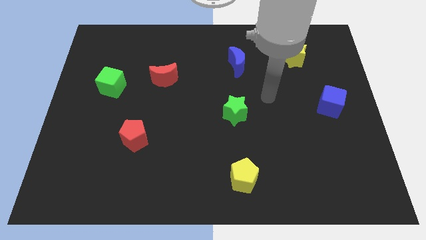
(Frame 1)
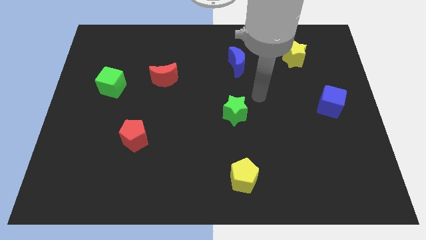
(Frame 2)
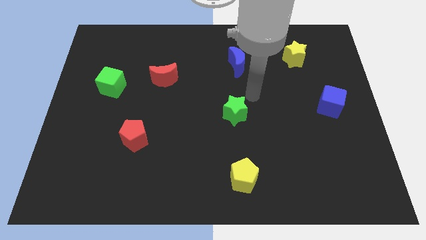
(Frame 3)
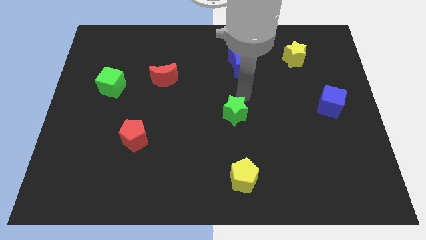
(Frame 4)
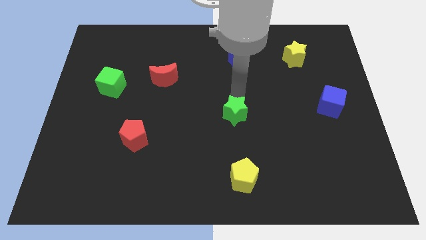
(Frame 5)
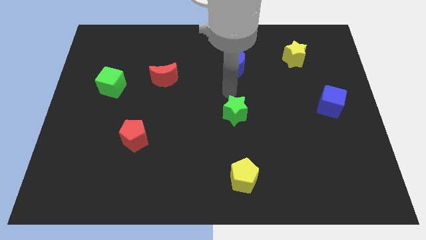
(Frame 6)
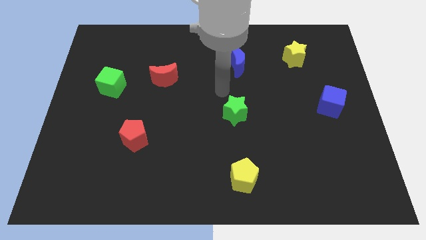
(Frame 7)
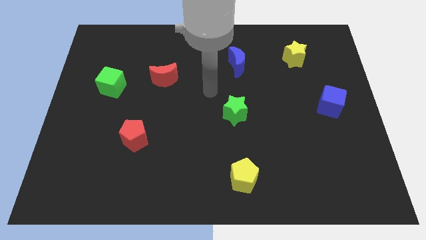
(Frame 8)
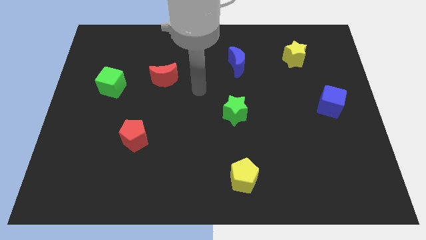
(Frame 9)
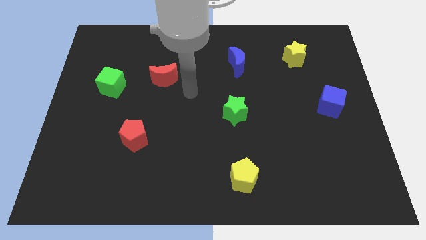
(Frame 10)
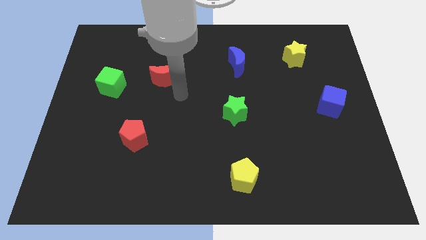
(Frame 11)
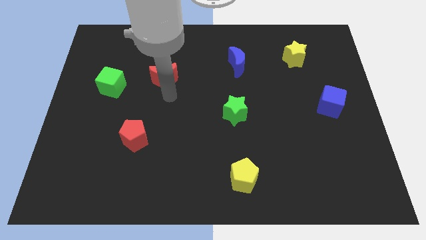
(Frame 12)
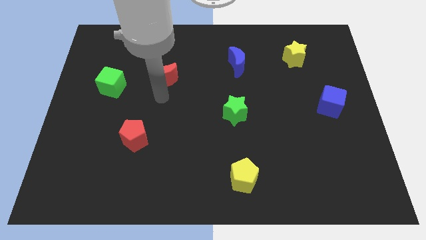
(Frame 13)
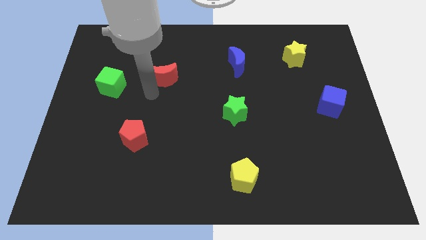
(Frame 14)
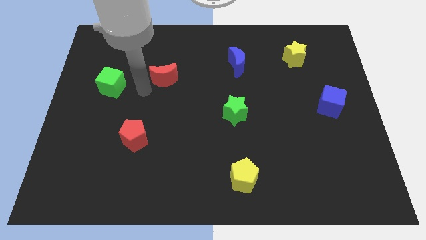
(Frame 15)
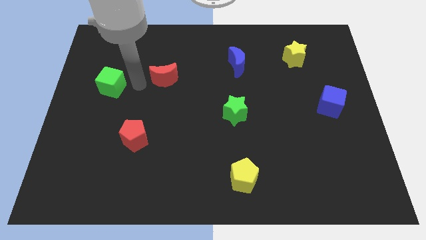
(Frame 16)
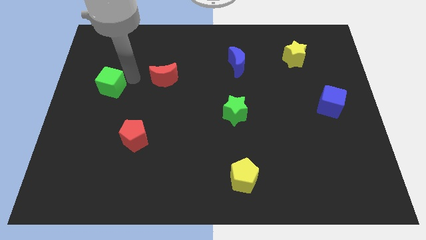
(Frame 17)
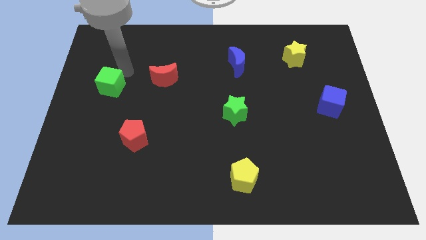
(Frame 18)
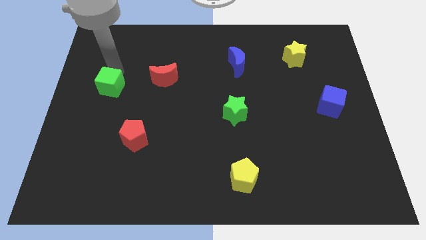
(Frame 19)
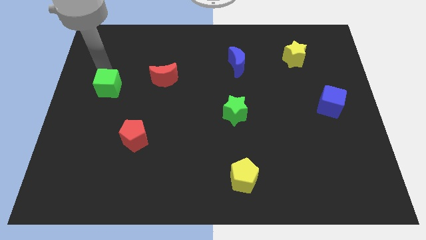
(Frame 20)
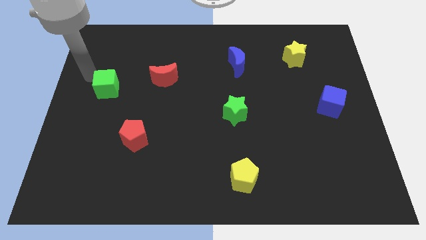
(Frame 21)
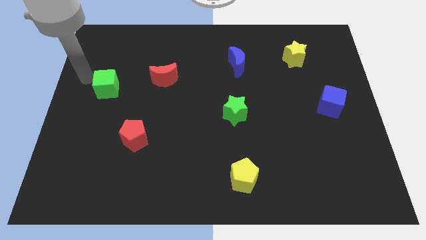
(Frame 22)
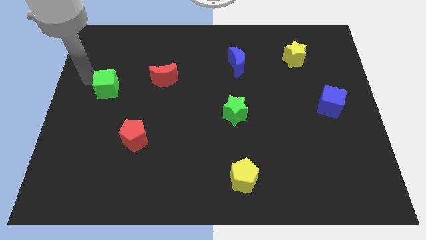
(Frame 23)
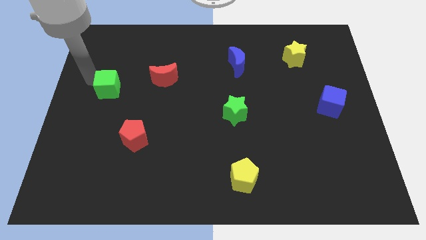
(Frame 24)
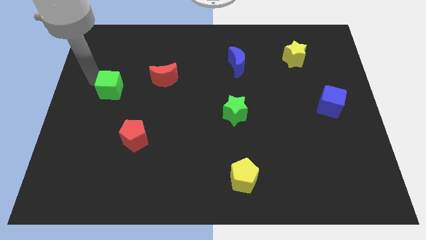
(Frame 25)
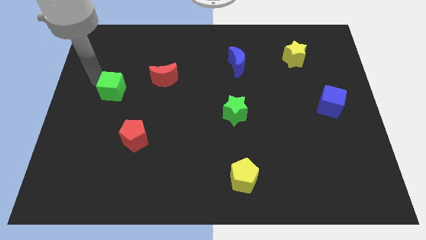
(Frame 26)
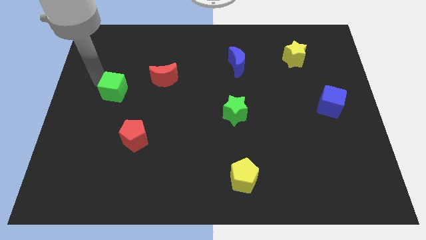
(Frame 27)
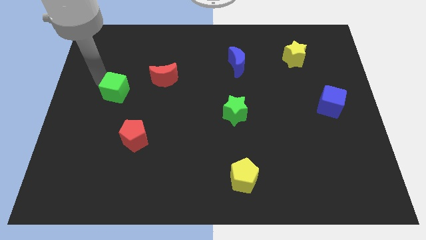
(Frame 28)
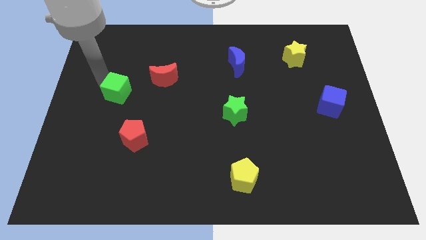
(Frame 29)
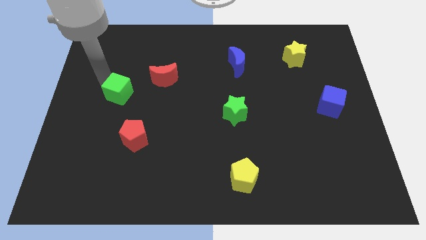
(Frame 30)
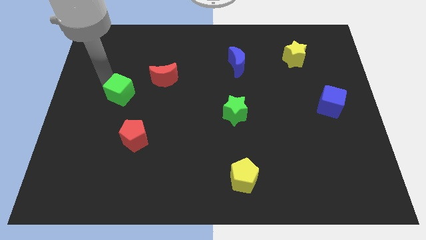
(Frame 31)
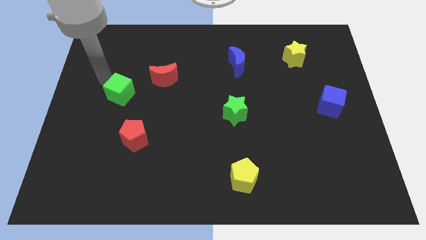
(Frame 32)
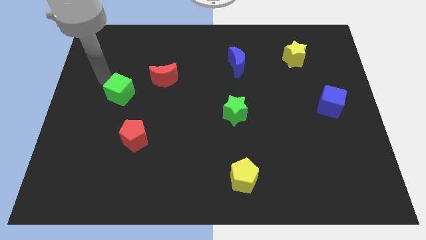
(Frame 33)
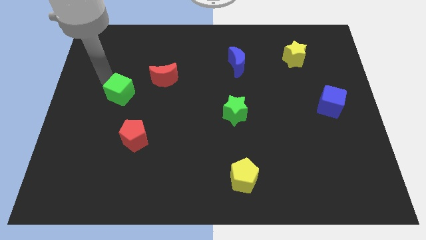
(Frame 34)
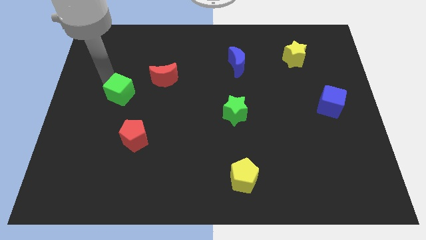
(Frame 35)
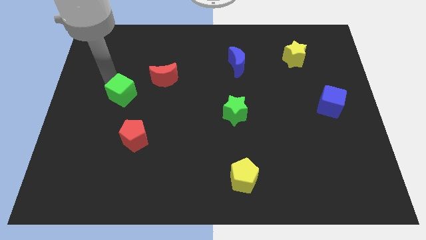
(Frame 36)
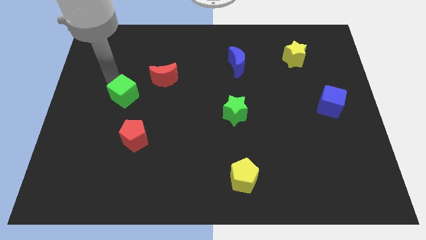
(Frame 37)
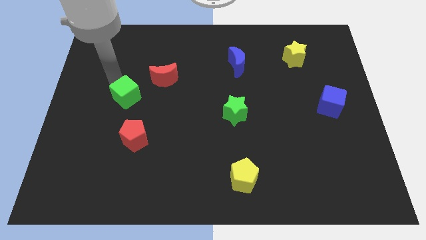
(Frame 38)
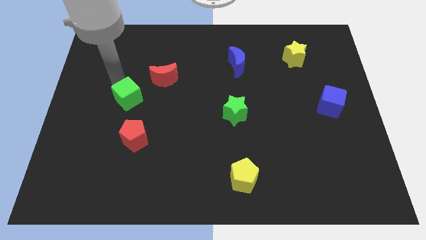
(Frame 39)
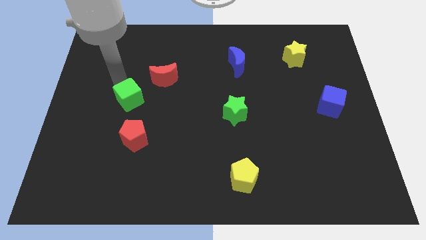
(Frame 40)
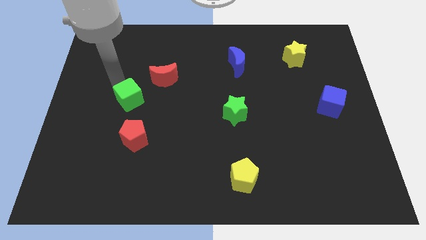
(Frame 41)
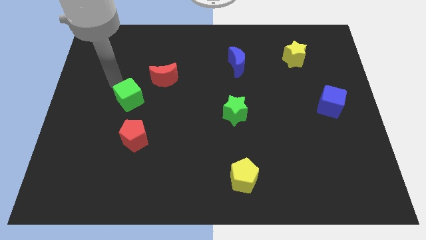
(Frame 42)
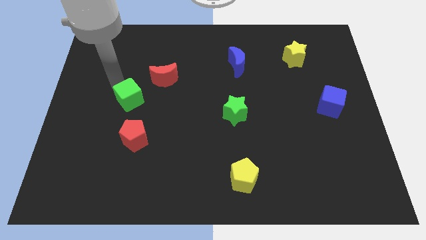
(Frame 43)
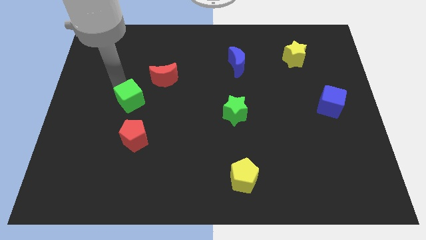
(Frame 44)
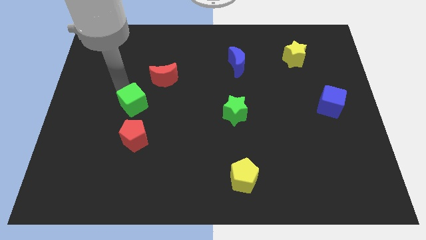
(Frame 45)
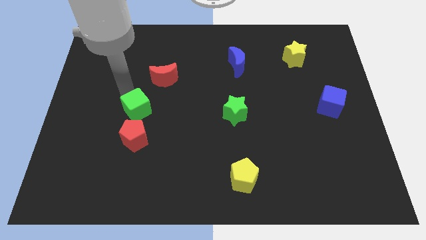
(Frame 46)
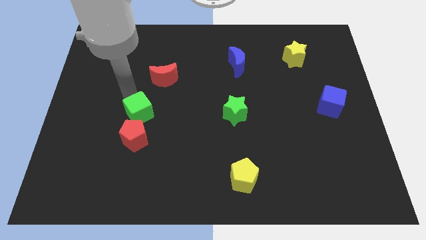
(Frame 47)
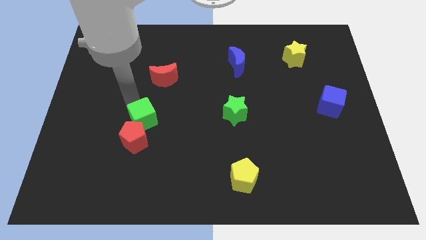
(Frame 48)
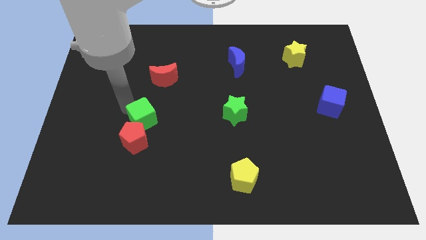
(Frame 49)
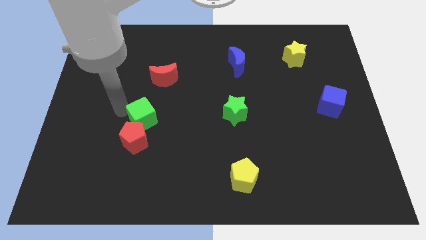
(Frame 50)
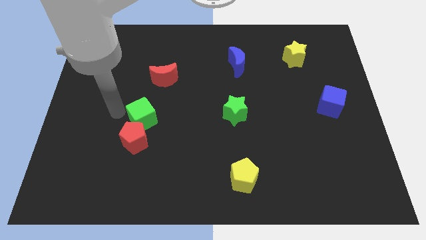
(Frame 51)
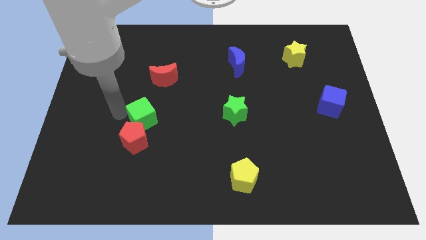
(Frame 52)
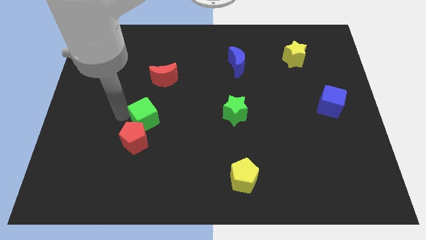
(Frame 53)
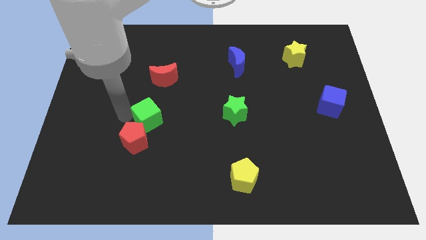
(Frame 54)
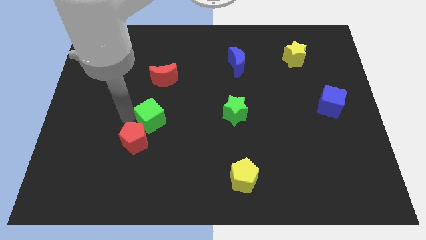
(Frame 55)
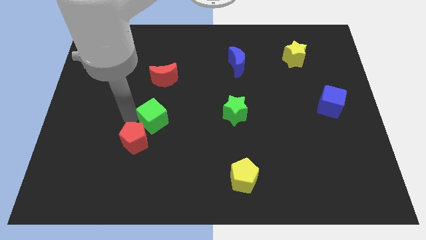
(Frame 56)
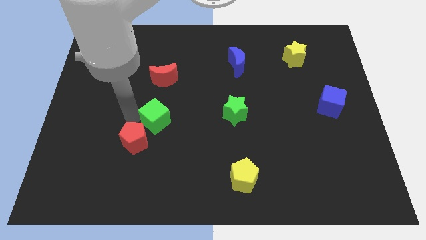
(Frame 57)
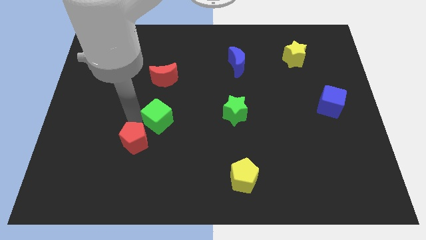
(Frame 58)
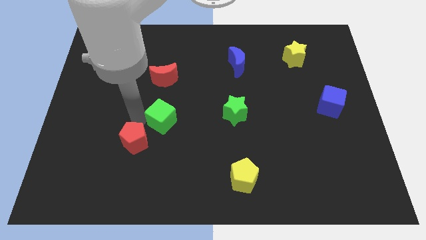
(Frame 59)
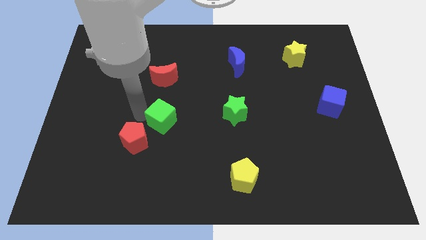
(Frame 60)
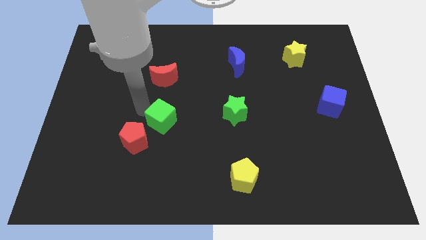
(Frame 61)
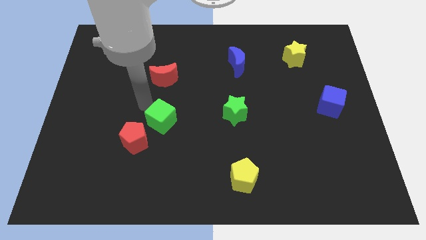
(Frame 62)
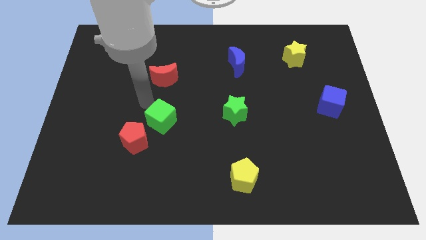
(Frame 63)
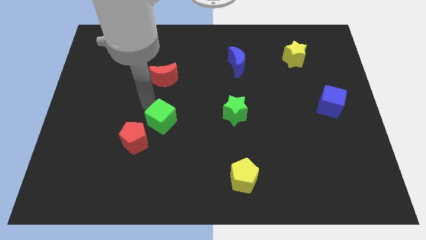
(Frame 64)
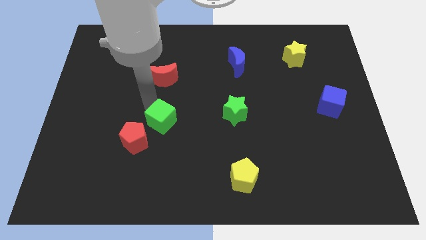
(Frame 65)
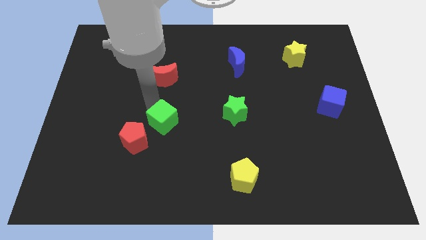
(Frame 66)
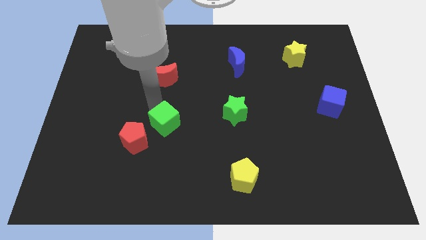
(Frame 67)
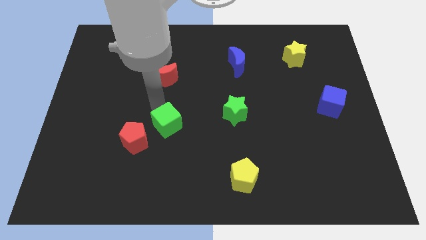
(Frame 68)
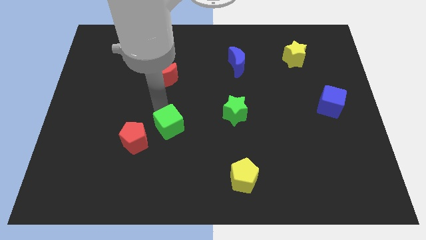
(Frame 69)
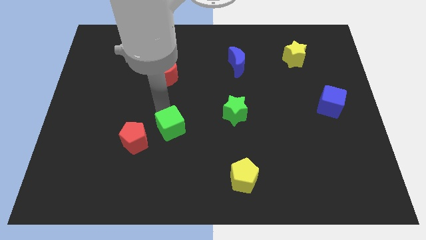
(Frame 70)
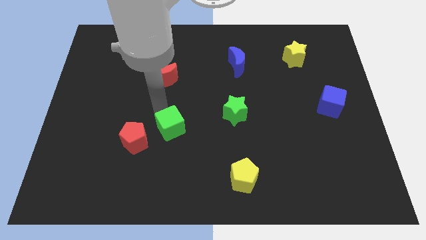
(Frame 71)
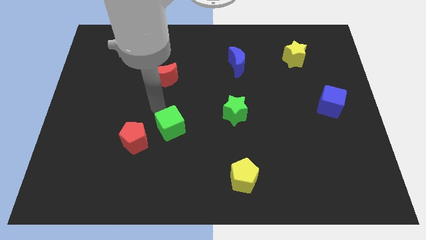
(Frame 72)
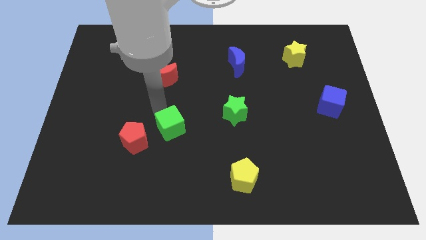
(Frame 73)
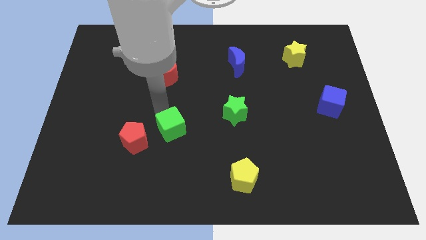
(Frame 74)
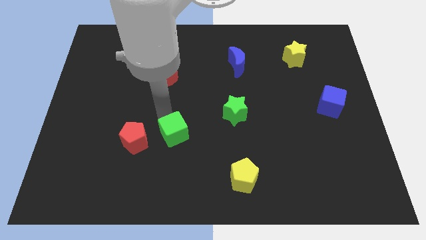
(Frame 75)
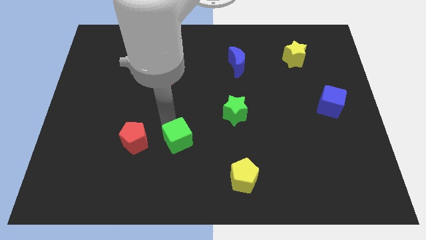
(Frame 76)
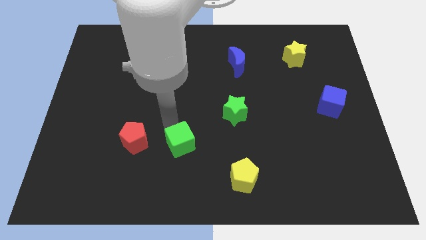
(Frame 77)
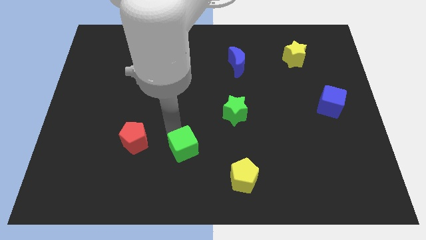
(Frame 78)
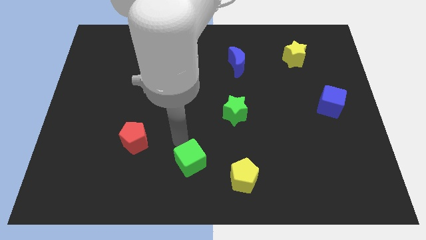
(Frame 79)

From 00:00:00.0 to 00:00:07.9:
put the green cube to the bottom side
